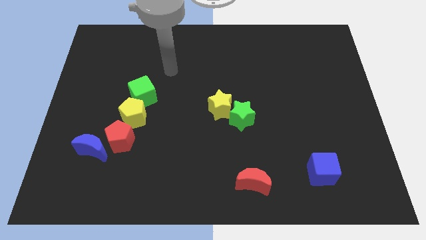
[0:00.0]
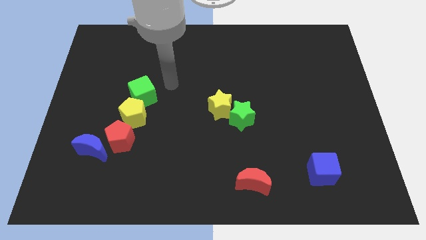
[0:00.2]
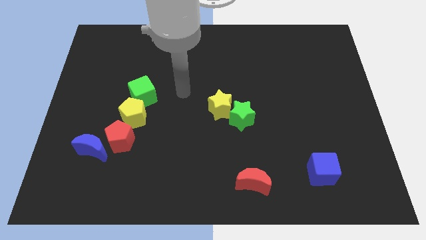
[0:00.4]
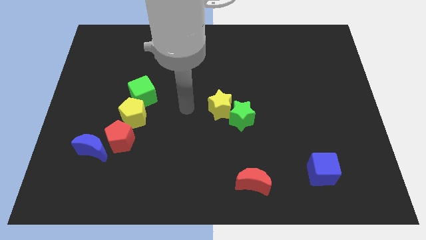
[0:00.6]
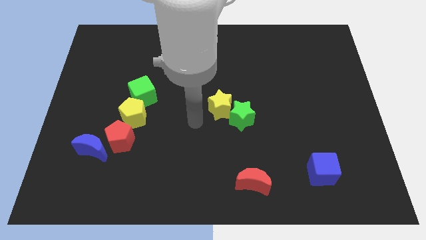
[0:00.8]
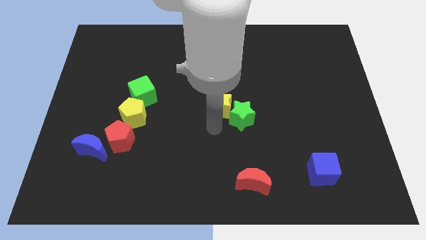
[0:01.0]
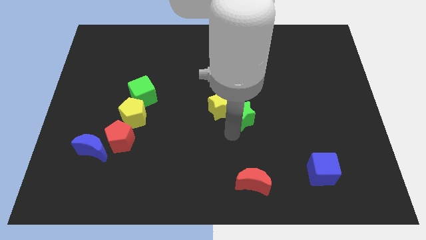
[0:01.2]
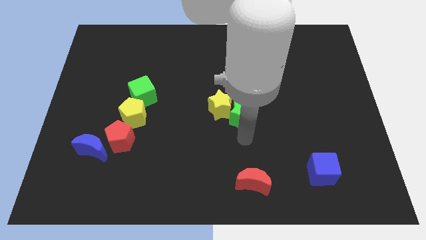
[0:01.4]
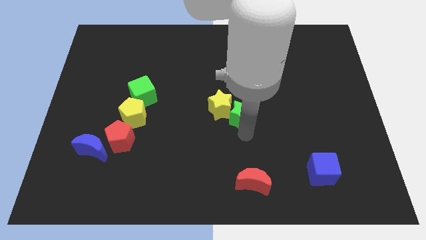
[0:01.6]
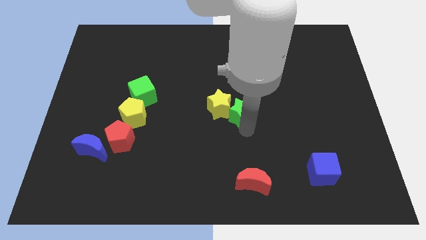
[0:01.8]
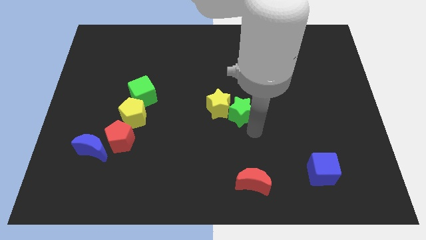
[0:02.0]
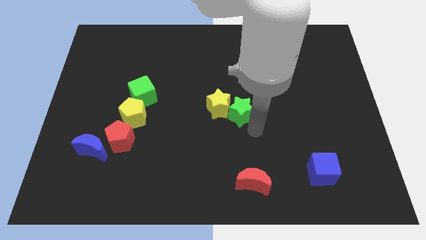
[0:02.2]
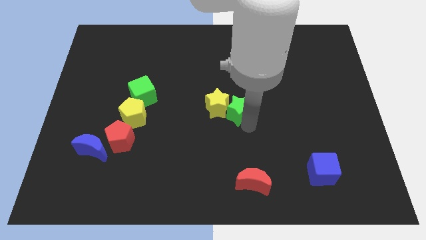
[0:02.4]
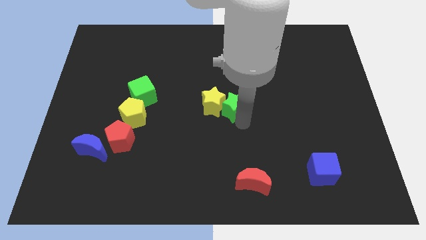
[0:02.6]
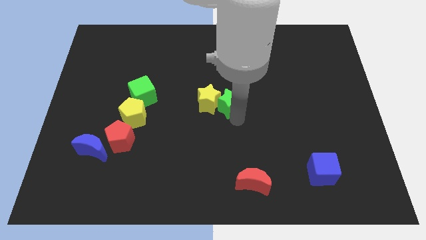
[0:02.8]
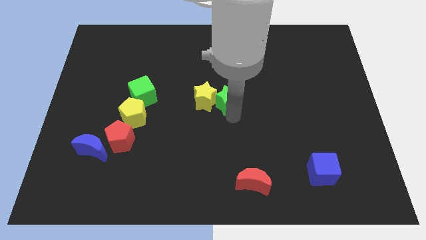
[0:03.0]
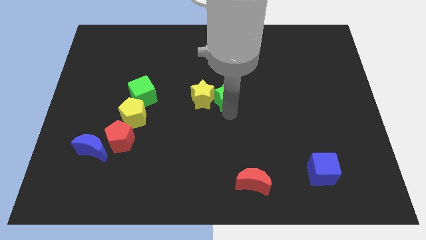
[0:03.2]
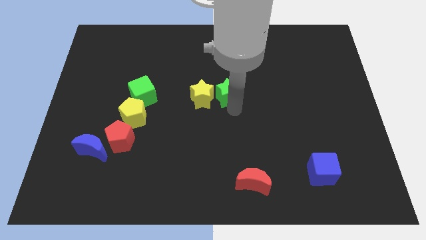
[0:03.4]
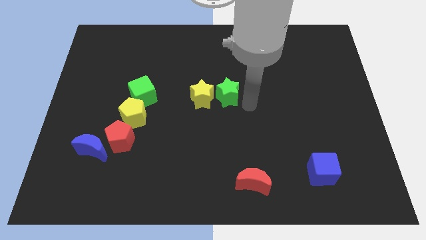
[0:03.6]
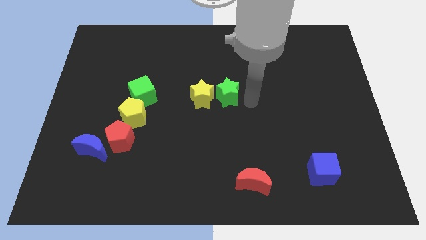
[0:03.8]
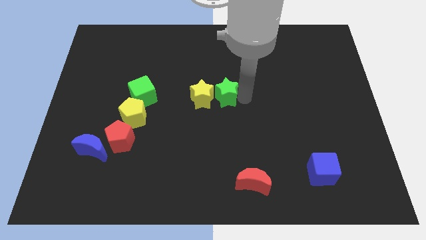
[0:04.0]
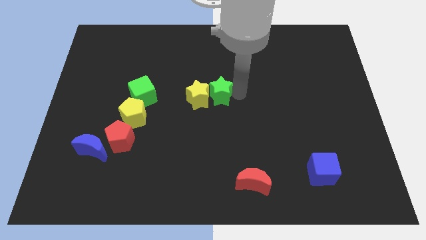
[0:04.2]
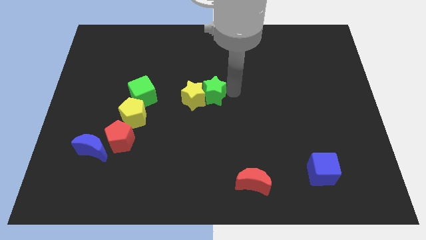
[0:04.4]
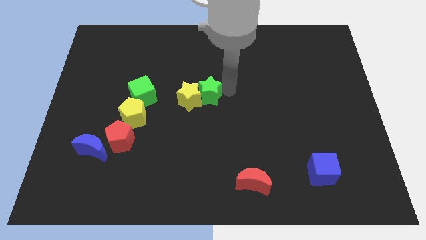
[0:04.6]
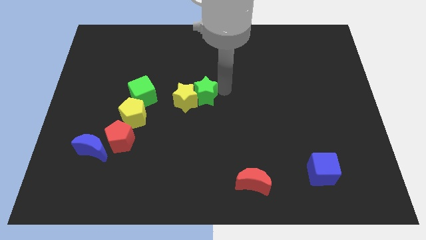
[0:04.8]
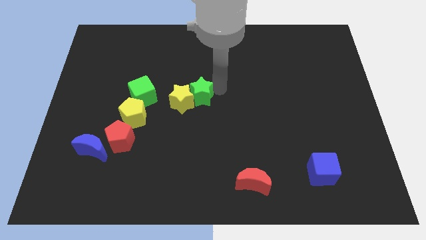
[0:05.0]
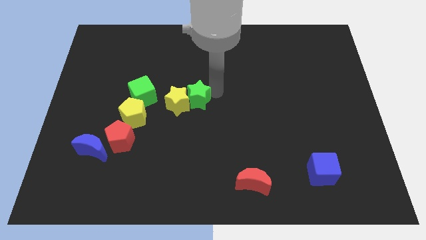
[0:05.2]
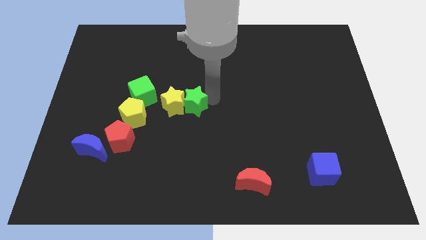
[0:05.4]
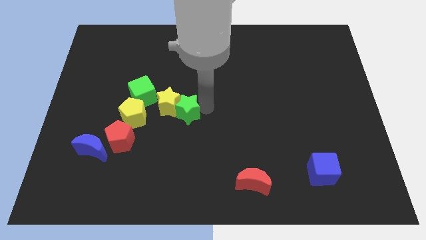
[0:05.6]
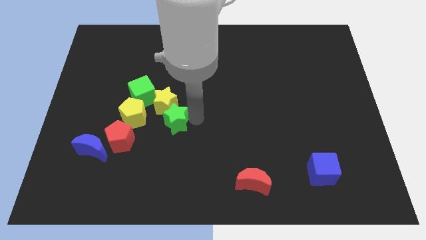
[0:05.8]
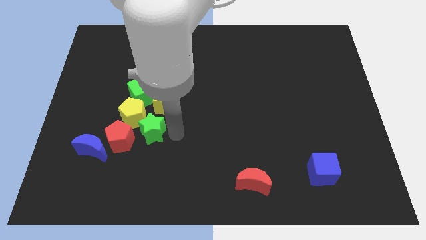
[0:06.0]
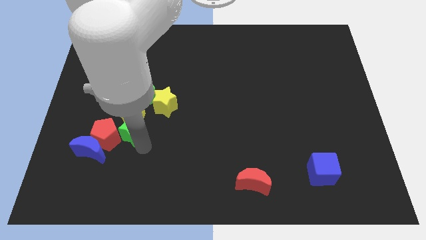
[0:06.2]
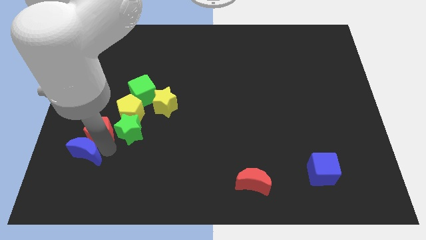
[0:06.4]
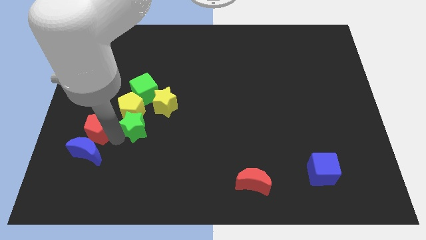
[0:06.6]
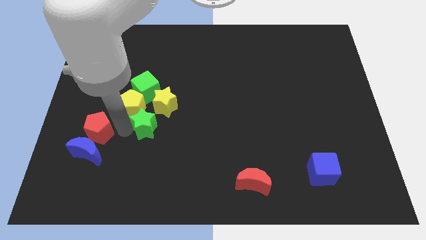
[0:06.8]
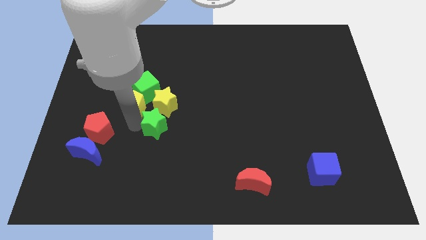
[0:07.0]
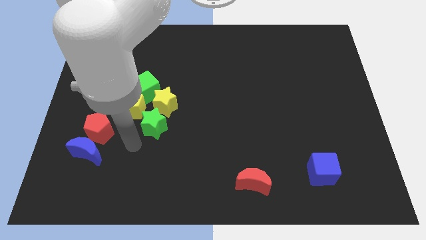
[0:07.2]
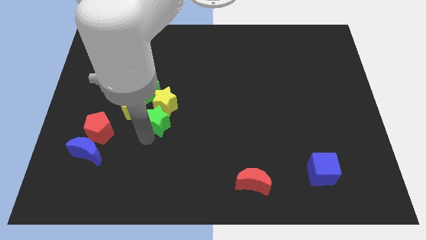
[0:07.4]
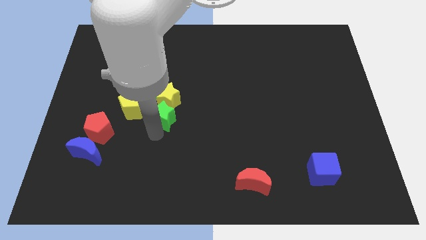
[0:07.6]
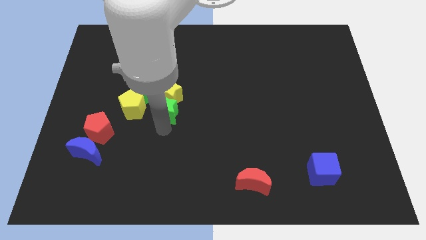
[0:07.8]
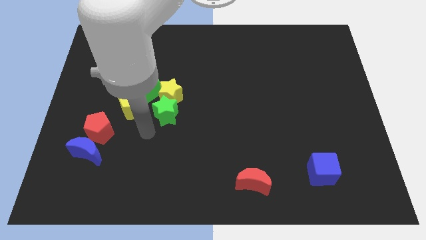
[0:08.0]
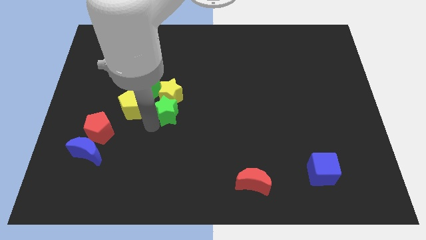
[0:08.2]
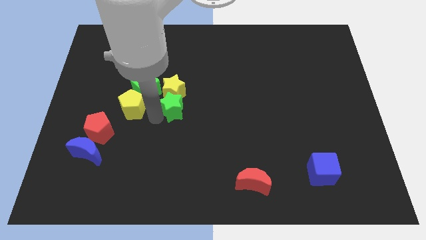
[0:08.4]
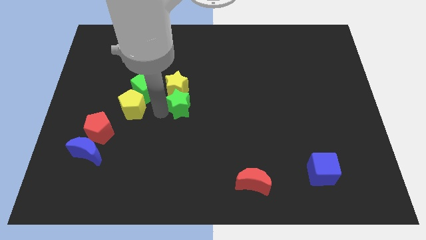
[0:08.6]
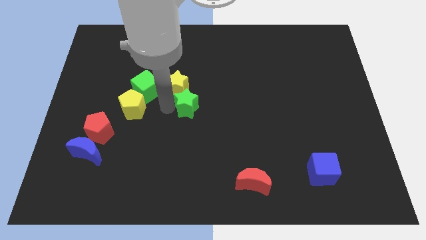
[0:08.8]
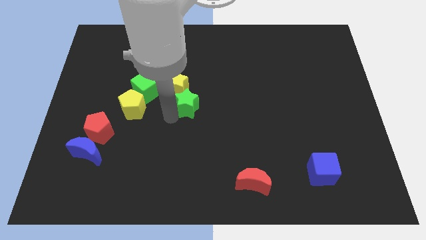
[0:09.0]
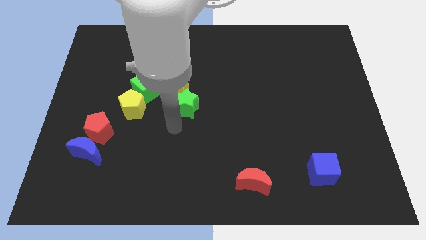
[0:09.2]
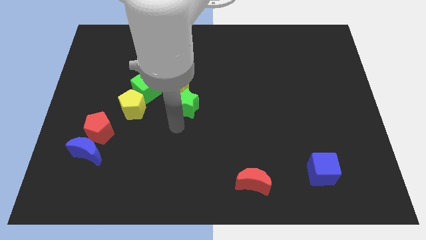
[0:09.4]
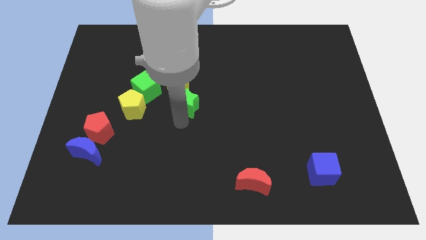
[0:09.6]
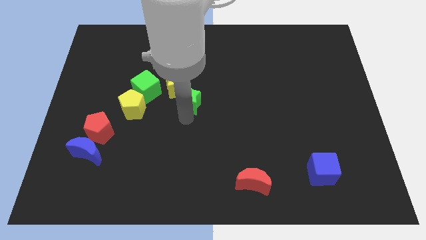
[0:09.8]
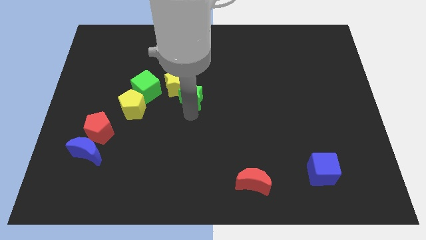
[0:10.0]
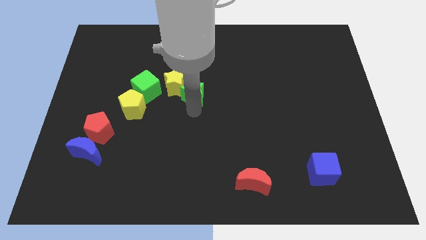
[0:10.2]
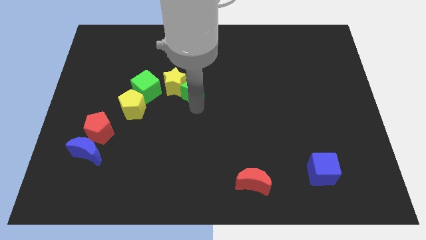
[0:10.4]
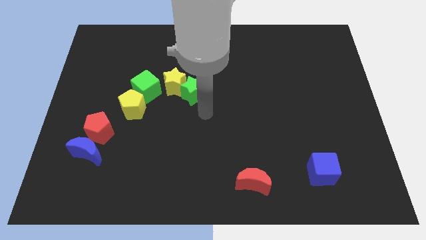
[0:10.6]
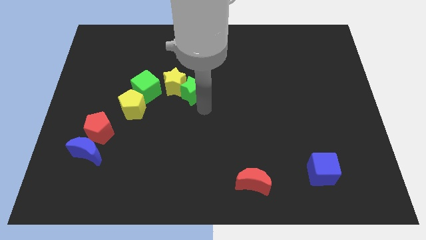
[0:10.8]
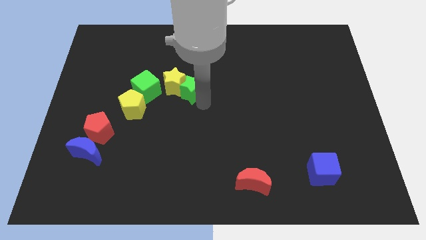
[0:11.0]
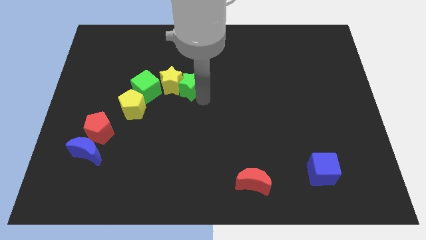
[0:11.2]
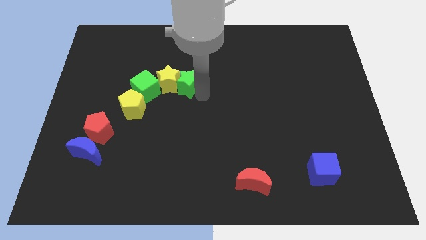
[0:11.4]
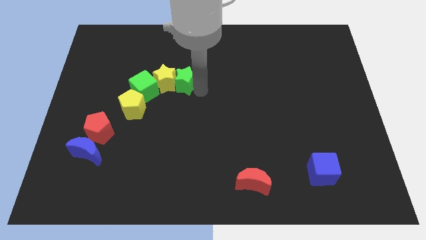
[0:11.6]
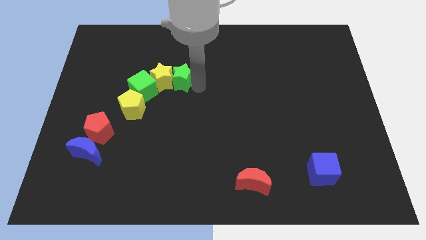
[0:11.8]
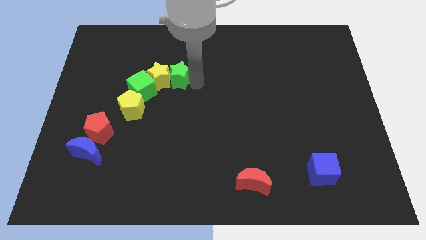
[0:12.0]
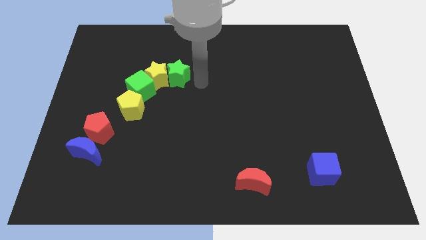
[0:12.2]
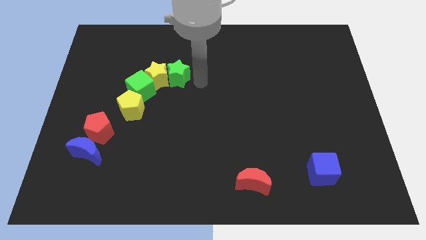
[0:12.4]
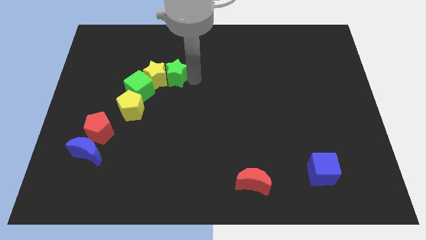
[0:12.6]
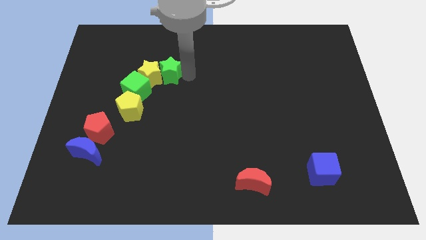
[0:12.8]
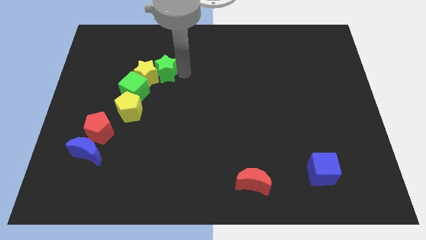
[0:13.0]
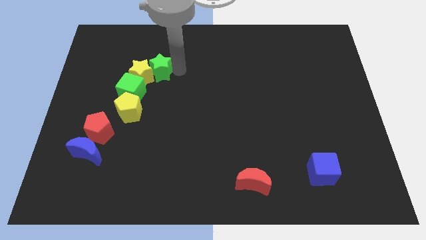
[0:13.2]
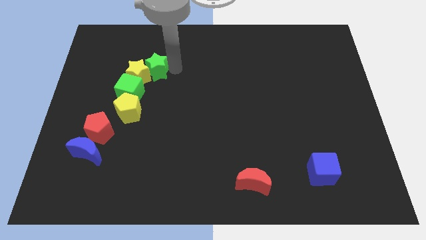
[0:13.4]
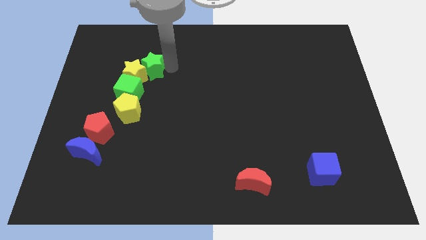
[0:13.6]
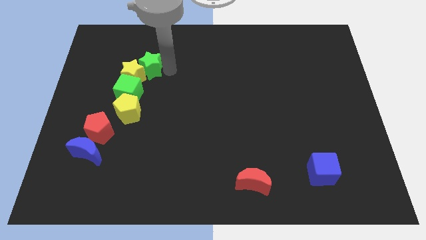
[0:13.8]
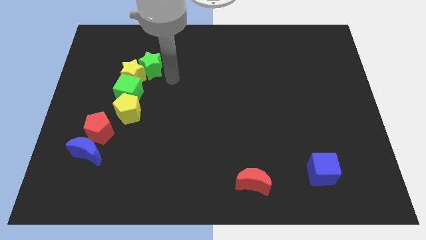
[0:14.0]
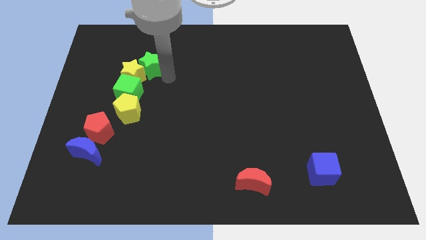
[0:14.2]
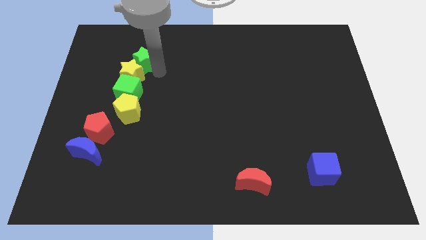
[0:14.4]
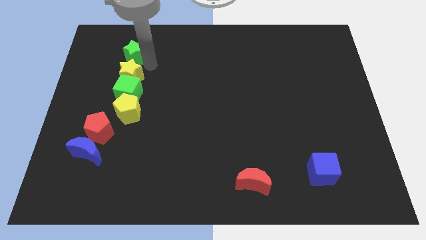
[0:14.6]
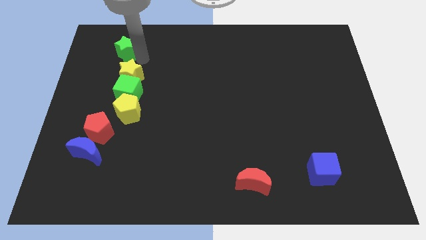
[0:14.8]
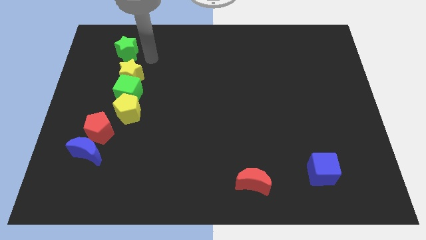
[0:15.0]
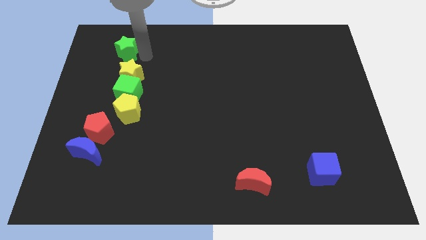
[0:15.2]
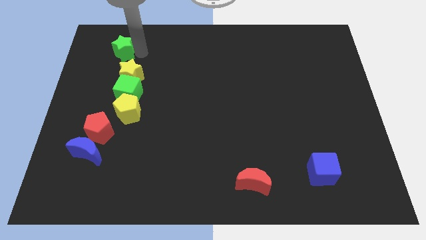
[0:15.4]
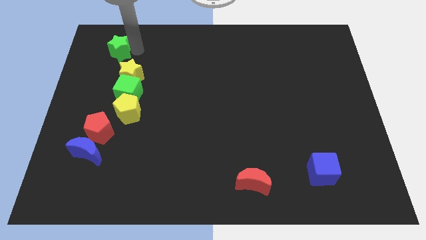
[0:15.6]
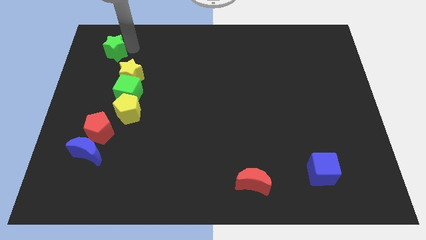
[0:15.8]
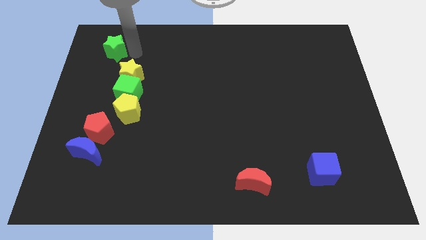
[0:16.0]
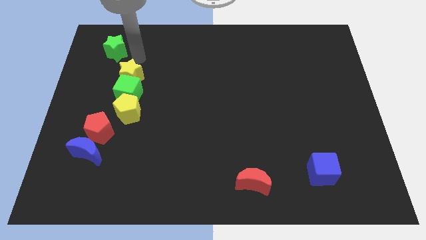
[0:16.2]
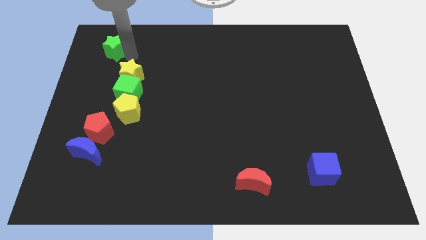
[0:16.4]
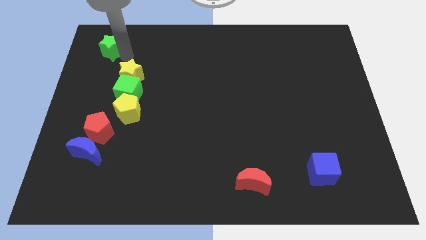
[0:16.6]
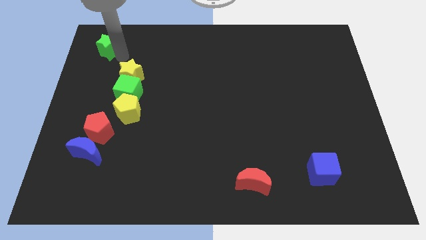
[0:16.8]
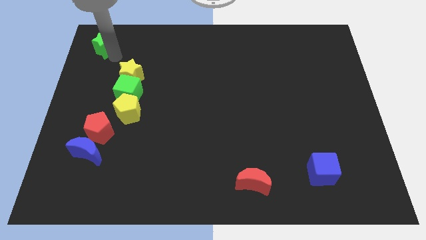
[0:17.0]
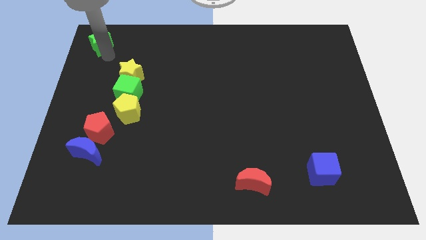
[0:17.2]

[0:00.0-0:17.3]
move the green star to the top left
